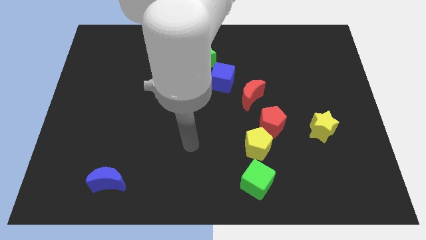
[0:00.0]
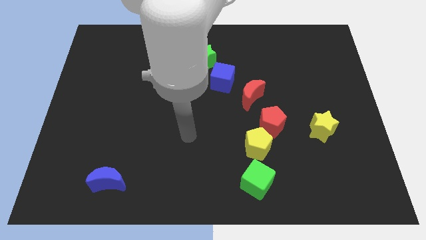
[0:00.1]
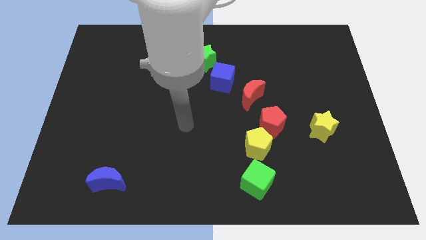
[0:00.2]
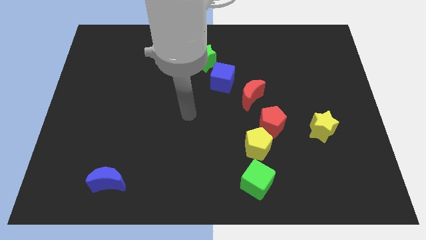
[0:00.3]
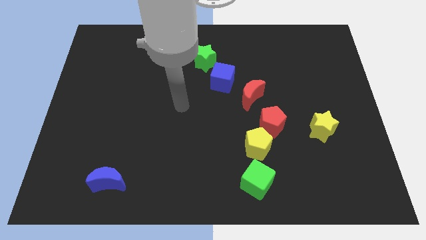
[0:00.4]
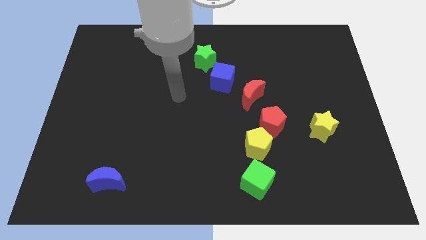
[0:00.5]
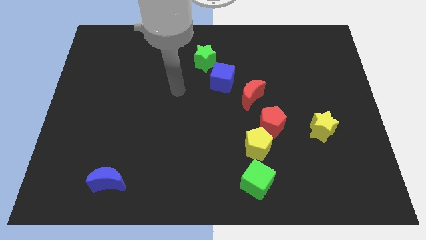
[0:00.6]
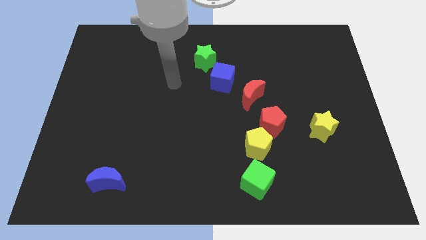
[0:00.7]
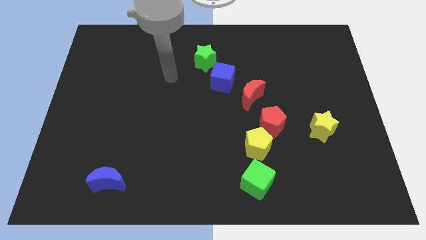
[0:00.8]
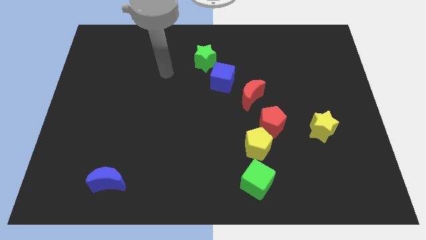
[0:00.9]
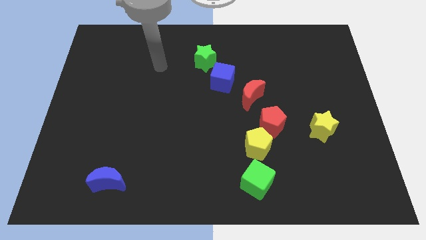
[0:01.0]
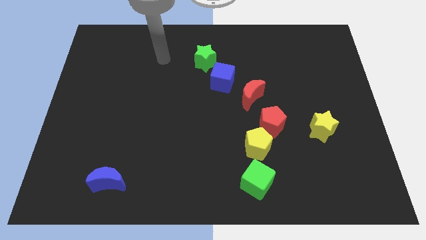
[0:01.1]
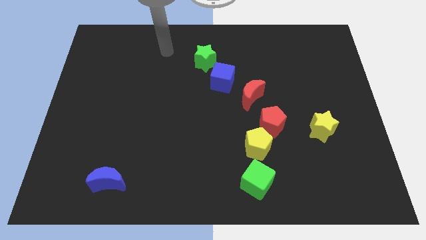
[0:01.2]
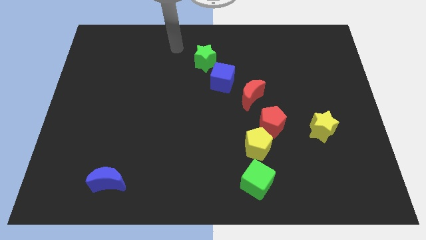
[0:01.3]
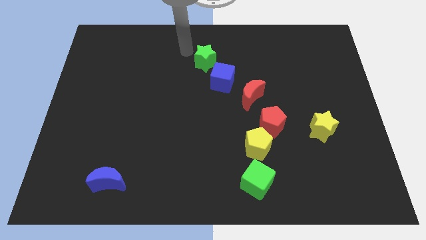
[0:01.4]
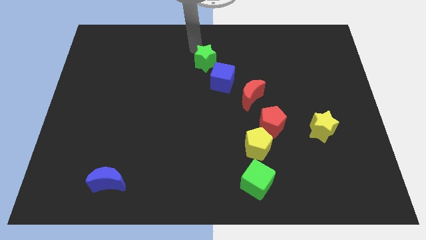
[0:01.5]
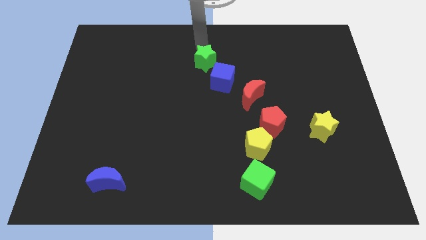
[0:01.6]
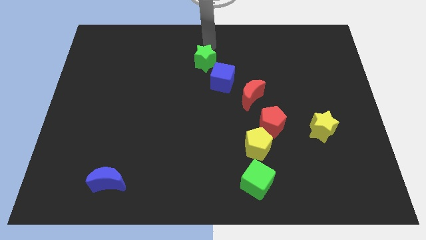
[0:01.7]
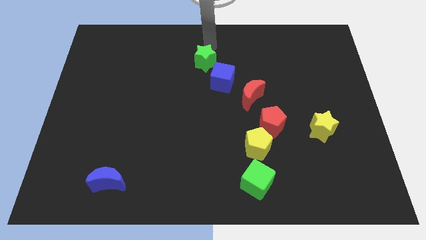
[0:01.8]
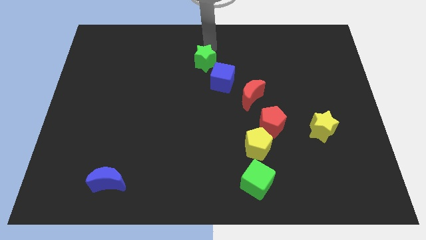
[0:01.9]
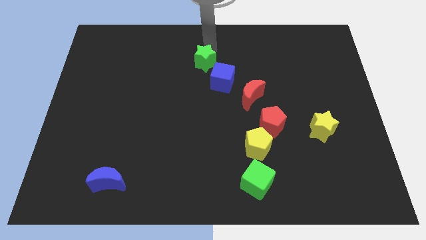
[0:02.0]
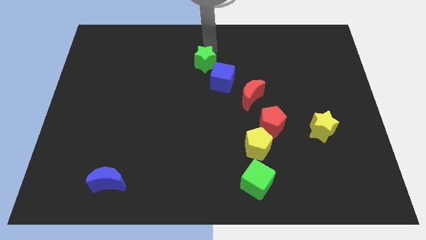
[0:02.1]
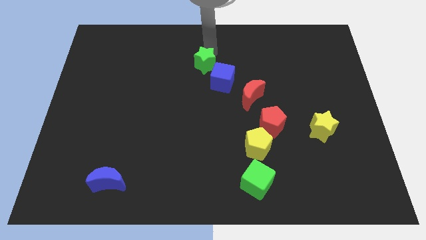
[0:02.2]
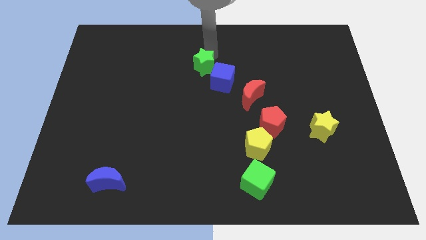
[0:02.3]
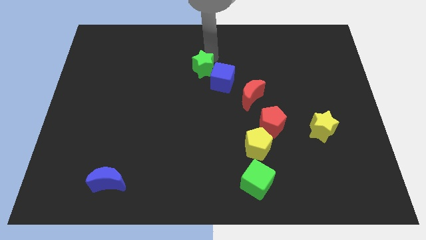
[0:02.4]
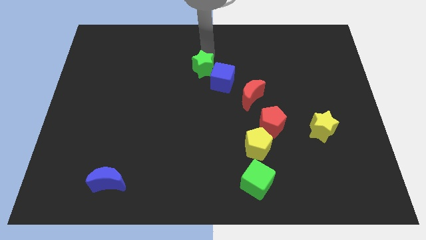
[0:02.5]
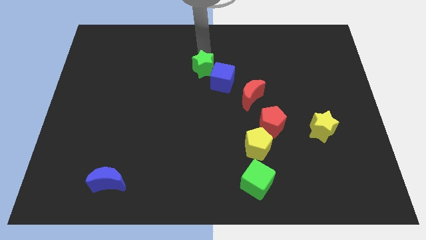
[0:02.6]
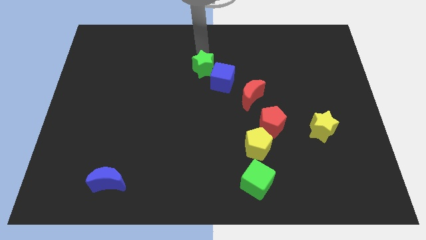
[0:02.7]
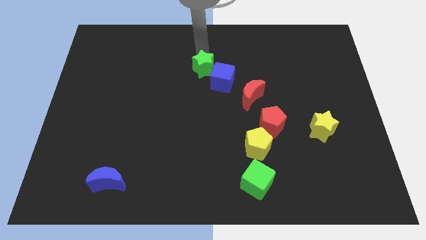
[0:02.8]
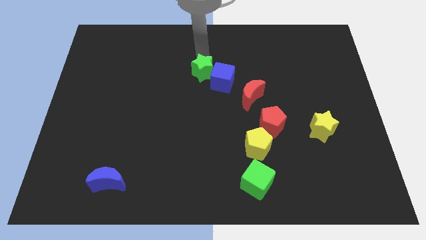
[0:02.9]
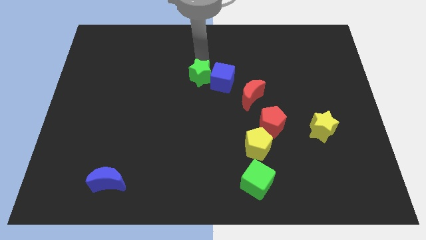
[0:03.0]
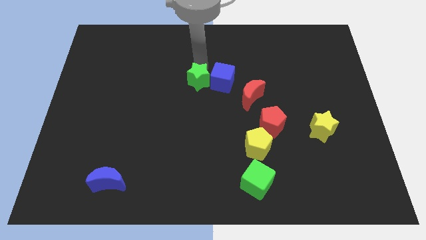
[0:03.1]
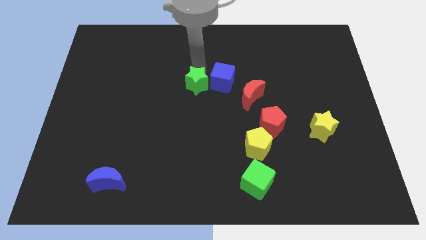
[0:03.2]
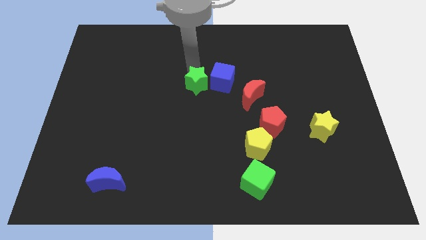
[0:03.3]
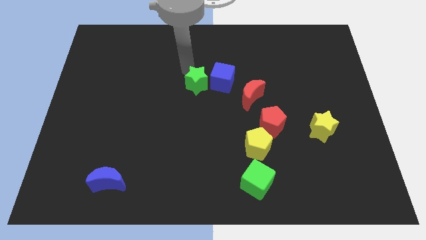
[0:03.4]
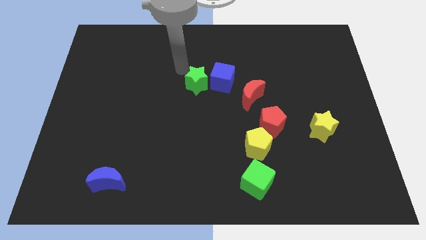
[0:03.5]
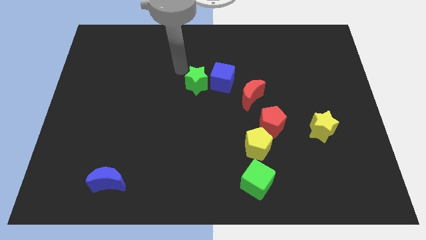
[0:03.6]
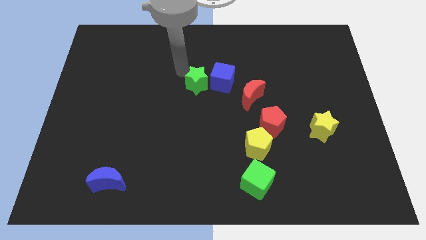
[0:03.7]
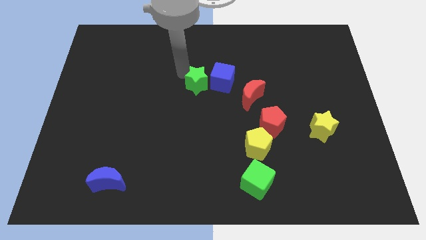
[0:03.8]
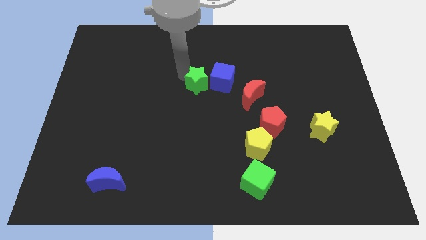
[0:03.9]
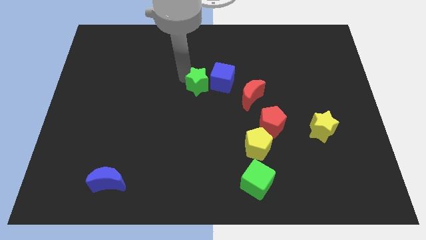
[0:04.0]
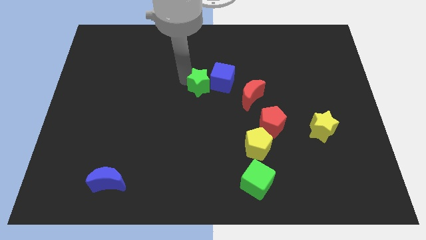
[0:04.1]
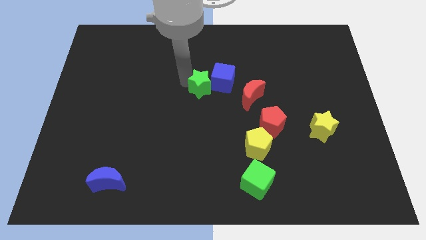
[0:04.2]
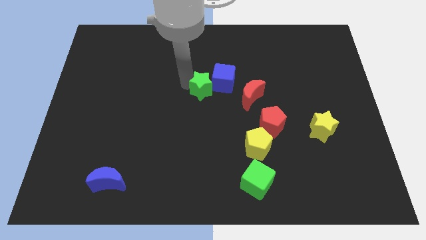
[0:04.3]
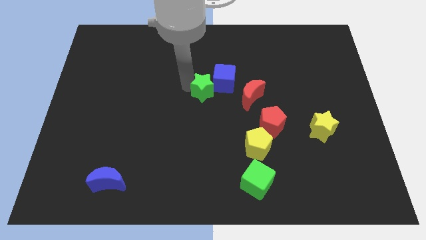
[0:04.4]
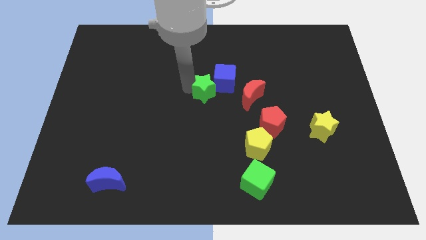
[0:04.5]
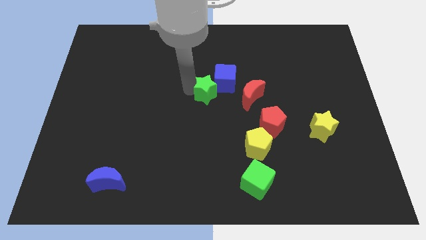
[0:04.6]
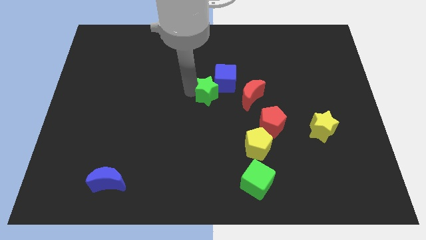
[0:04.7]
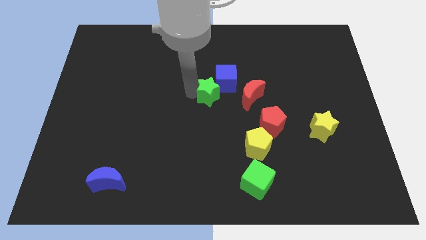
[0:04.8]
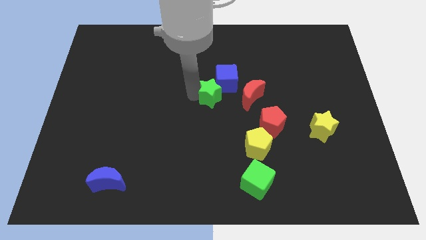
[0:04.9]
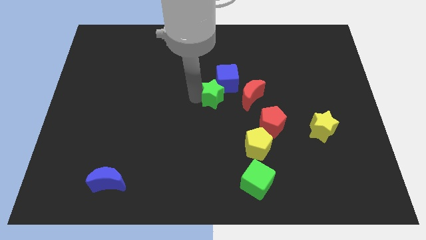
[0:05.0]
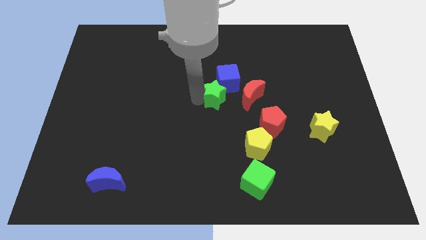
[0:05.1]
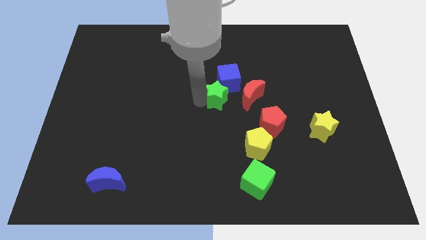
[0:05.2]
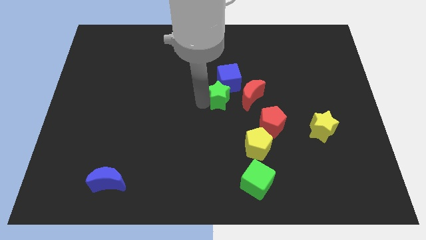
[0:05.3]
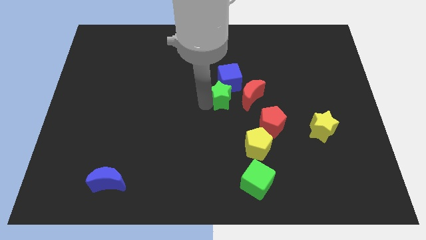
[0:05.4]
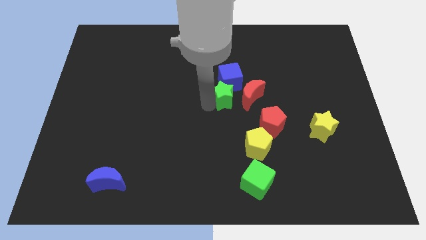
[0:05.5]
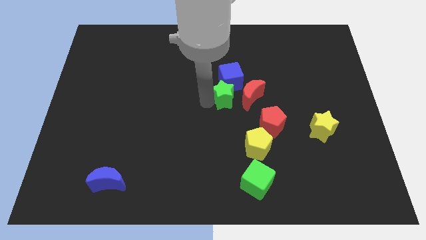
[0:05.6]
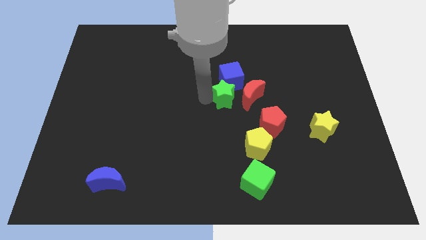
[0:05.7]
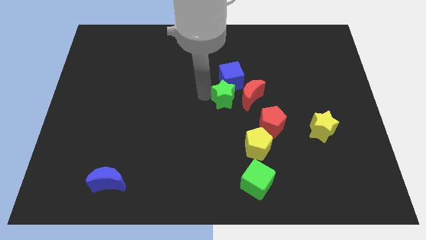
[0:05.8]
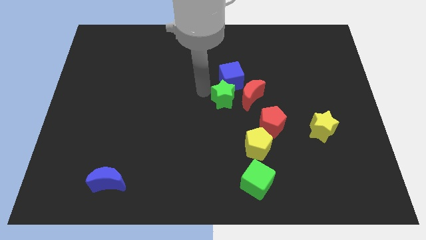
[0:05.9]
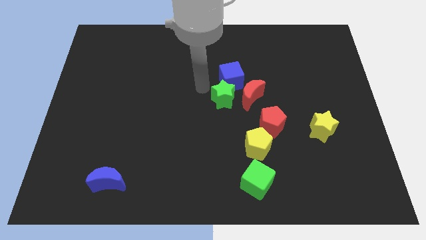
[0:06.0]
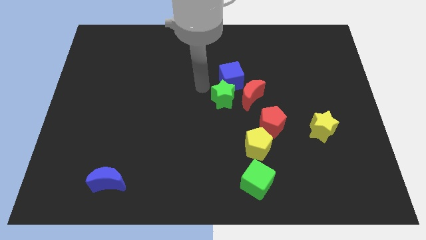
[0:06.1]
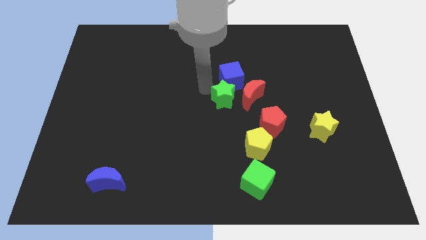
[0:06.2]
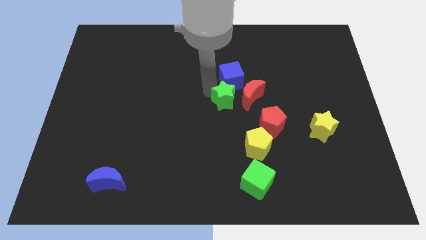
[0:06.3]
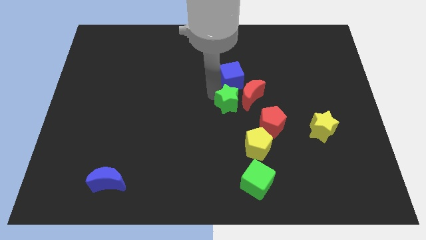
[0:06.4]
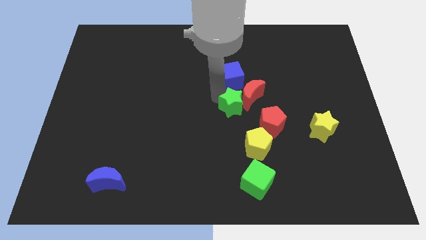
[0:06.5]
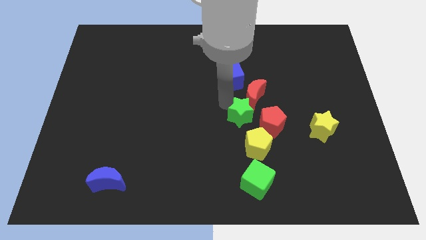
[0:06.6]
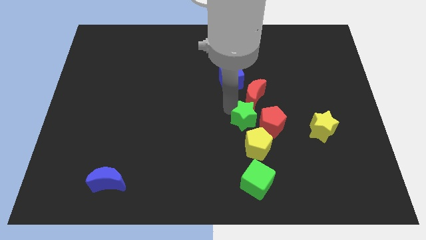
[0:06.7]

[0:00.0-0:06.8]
slide the green star next to the red pentagon
